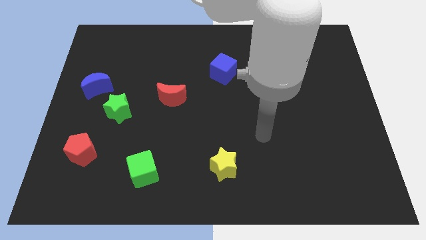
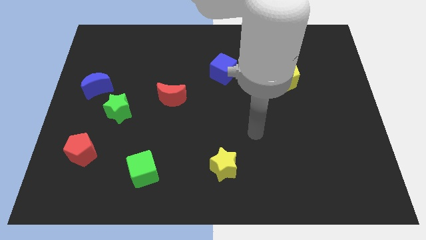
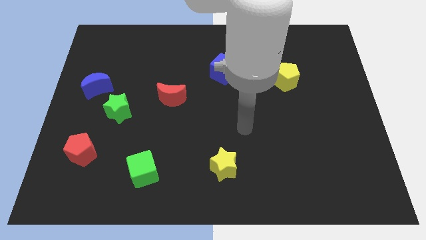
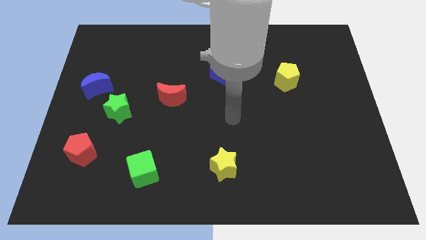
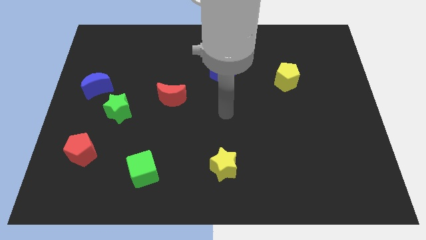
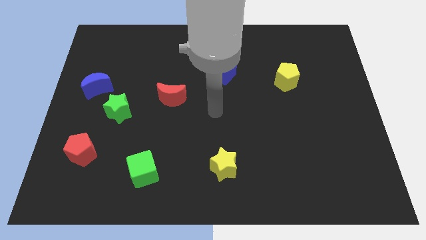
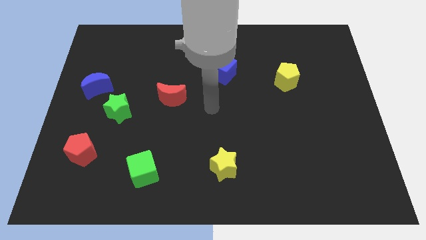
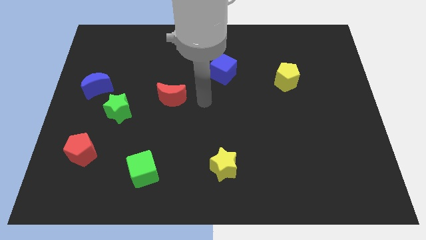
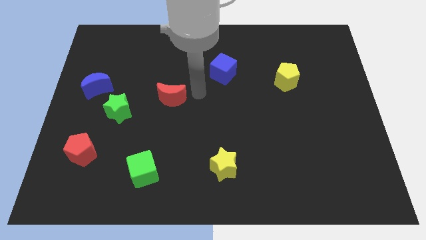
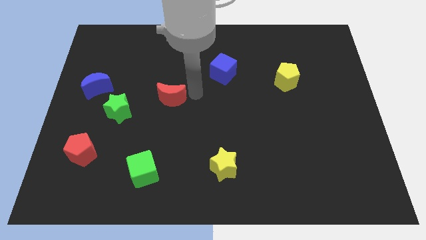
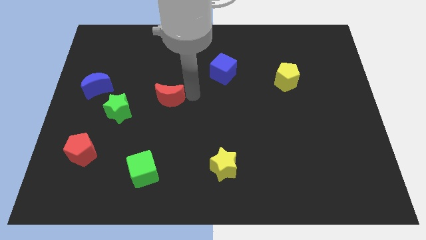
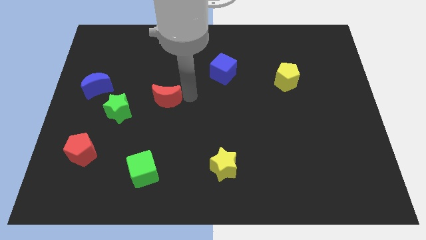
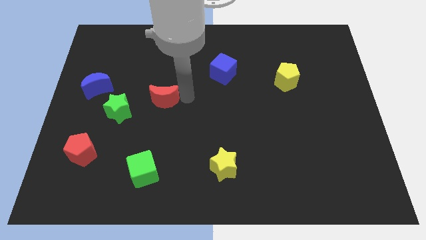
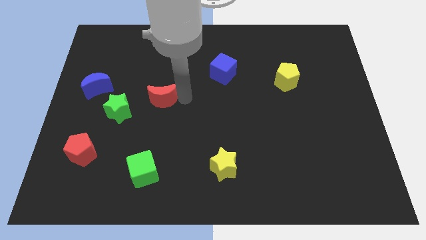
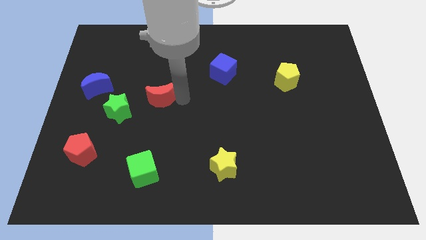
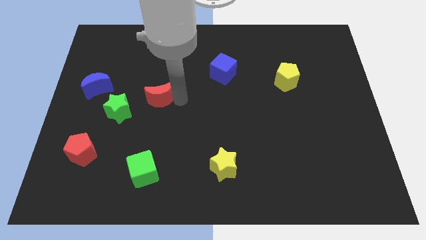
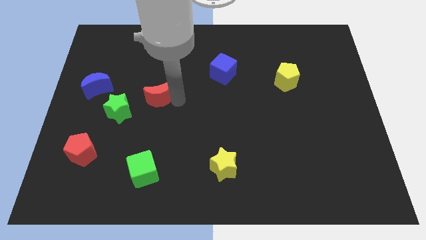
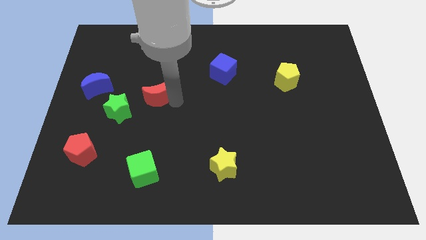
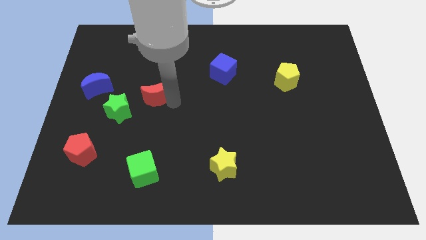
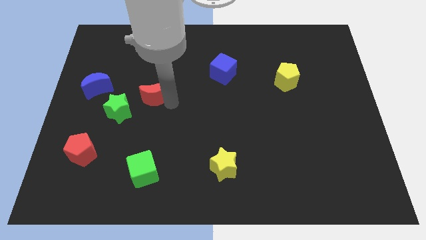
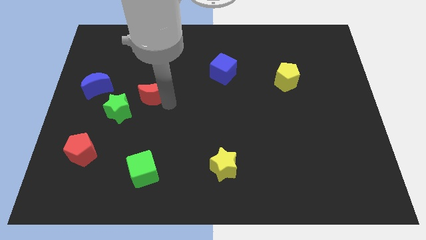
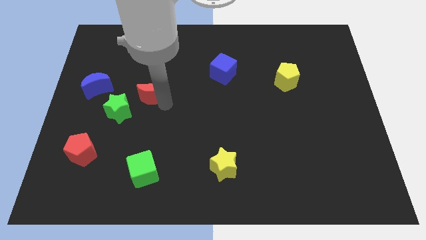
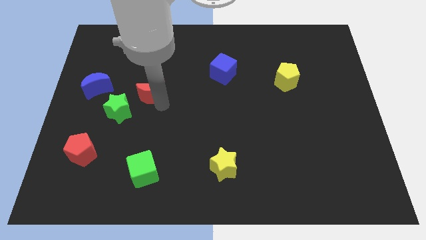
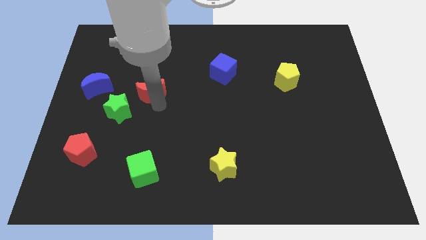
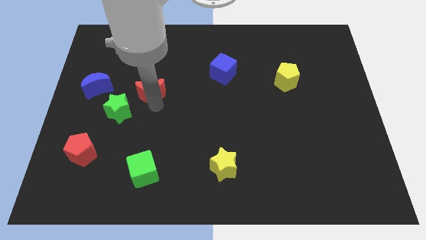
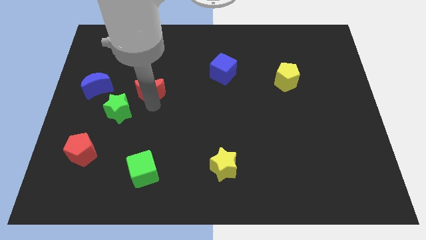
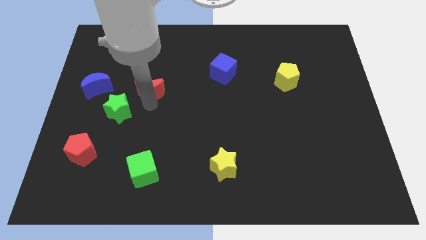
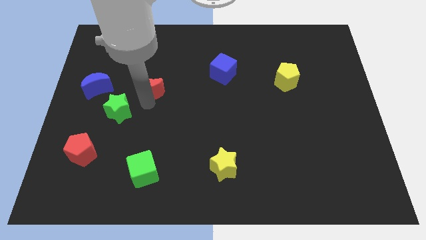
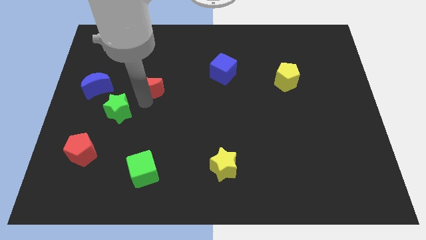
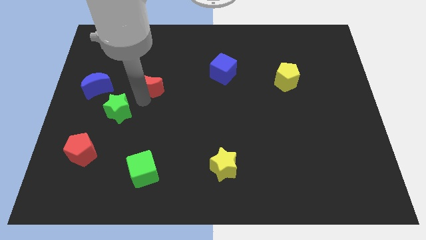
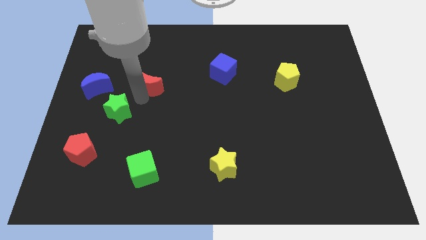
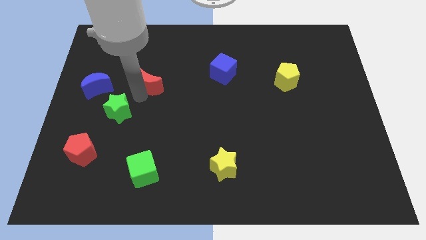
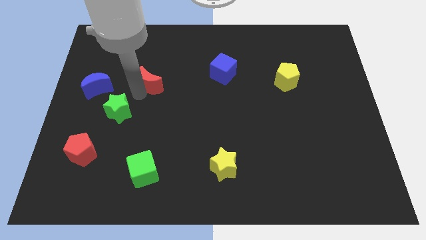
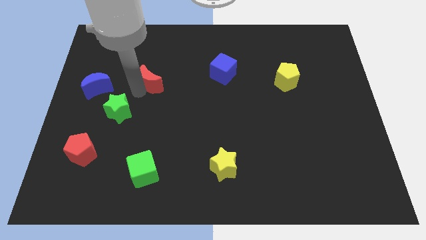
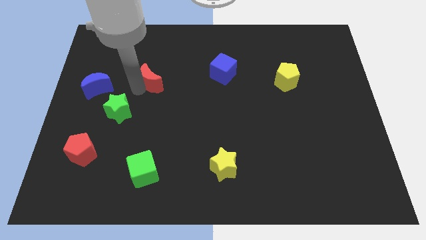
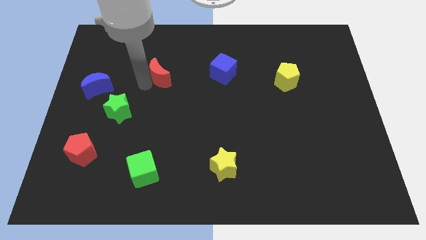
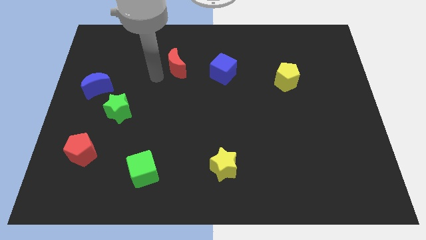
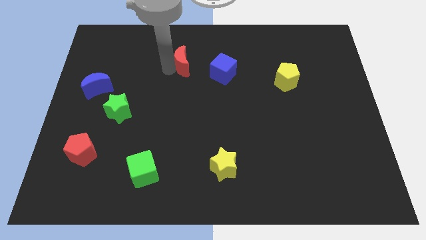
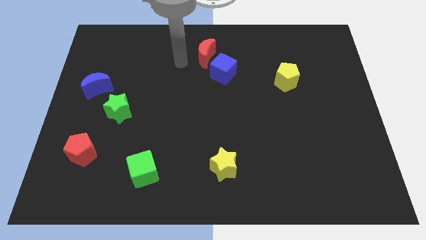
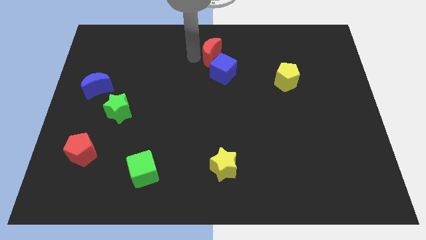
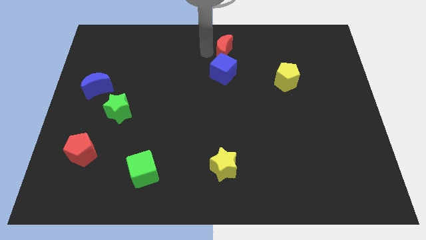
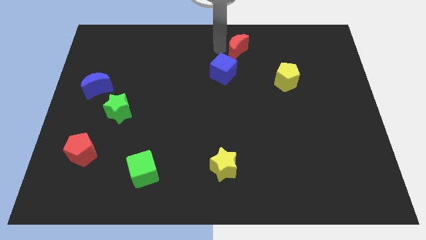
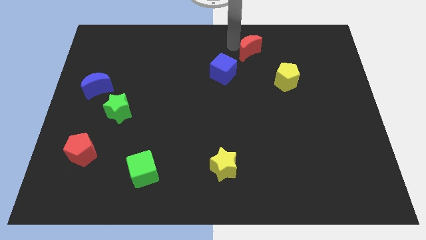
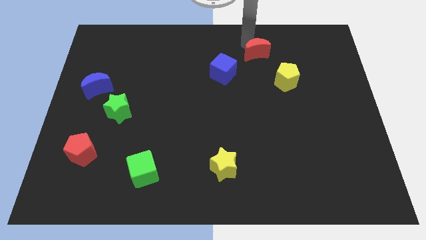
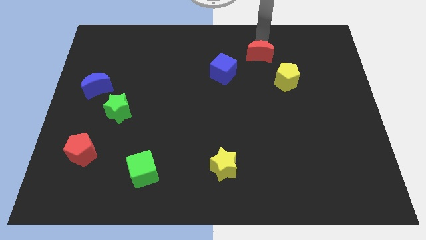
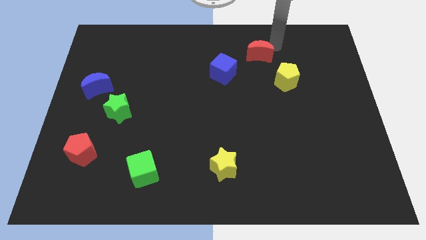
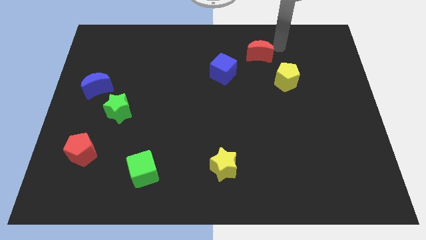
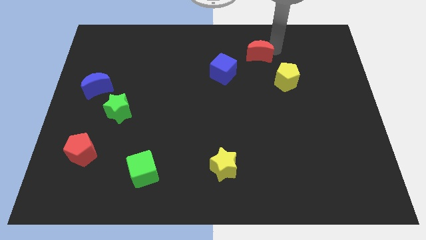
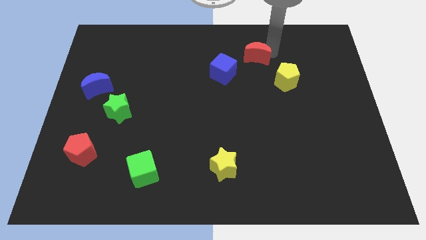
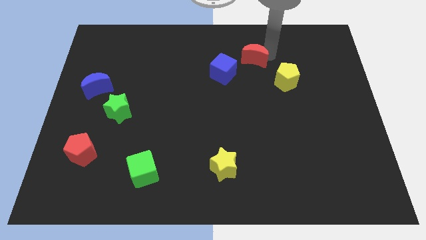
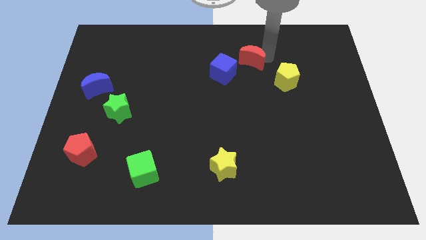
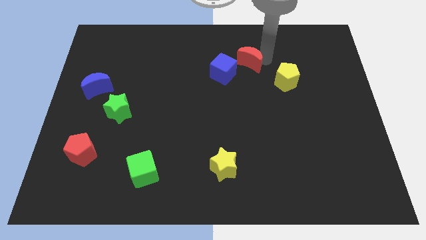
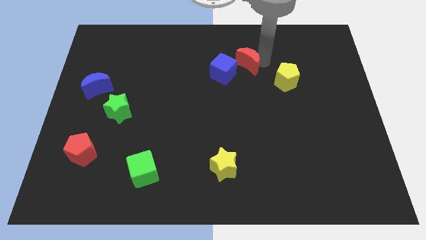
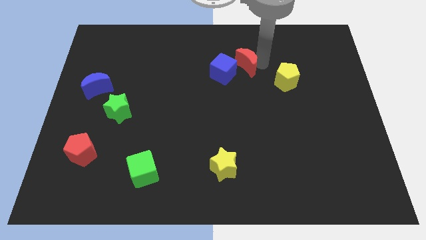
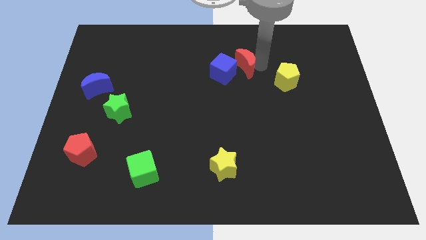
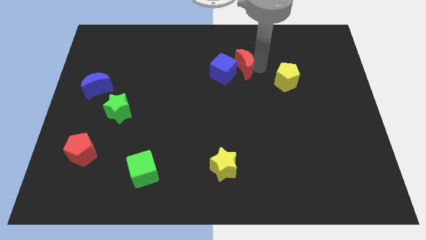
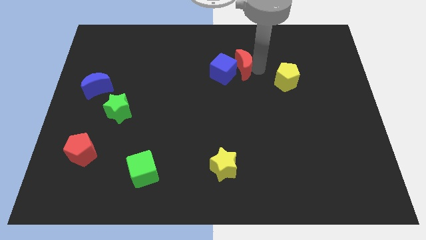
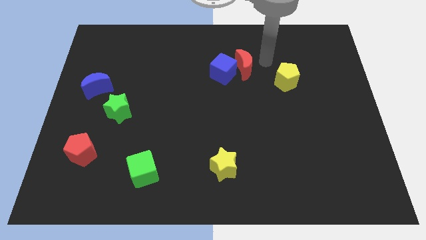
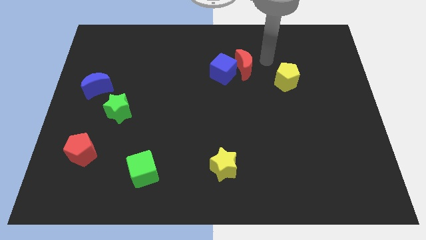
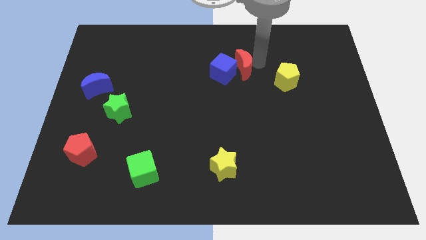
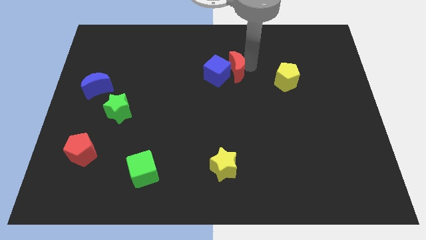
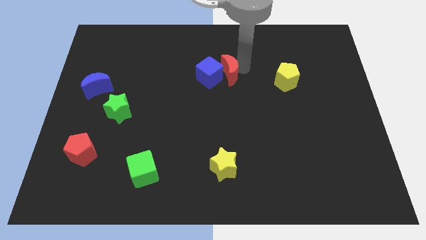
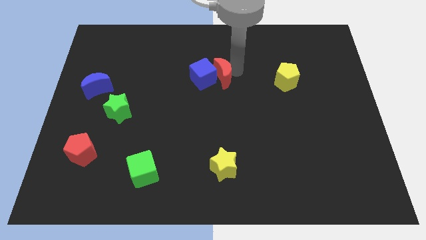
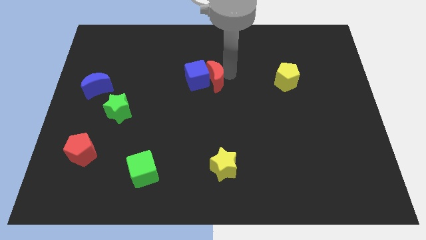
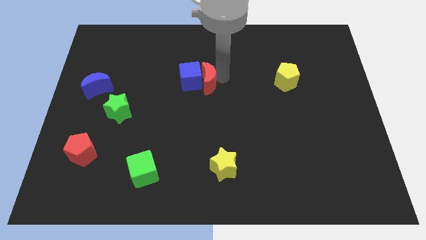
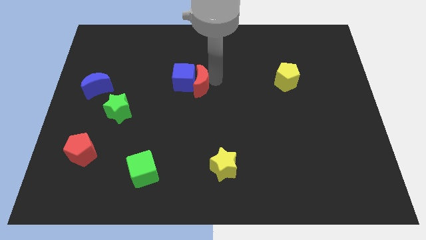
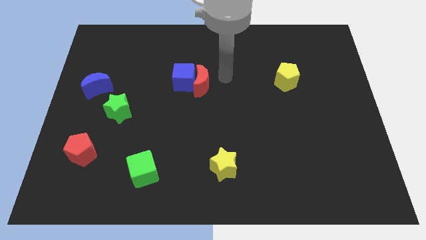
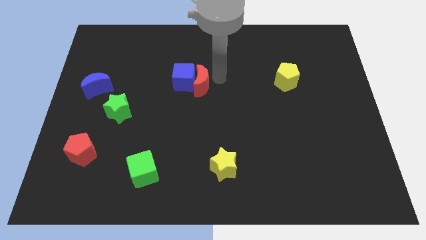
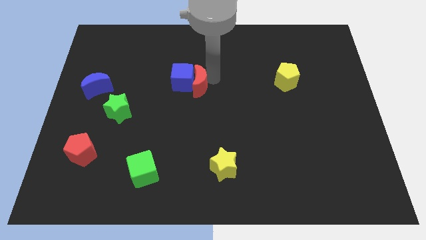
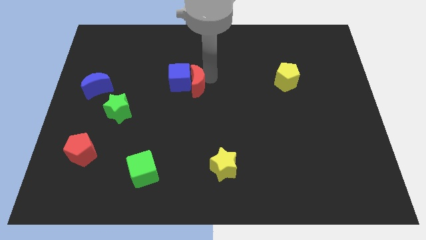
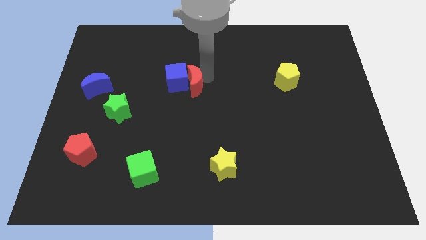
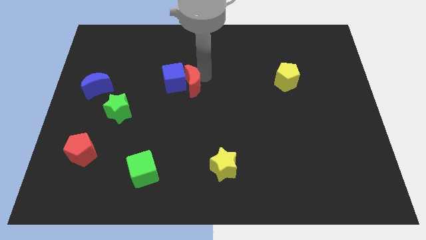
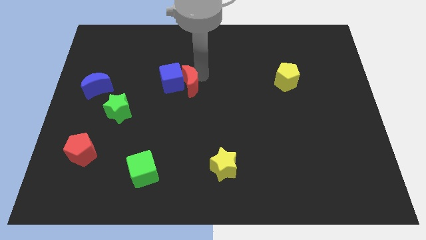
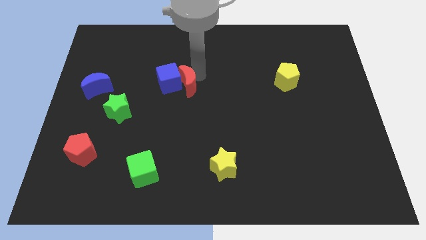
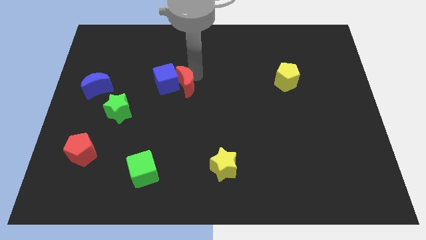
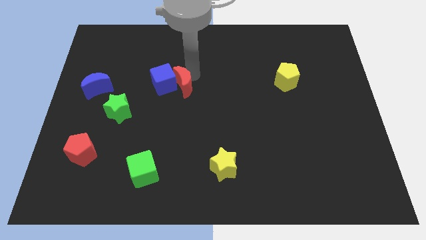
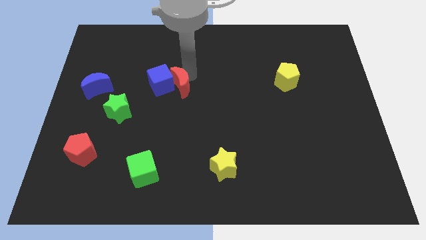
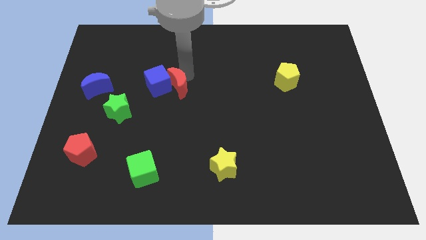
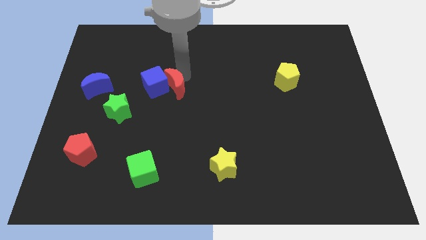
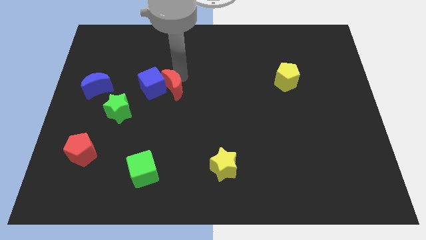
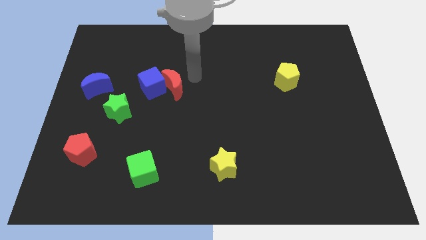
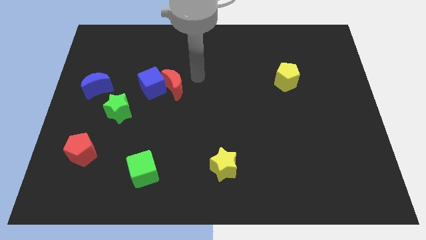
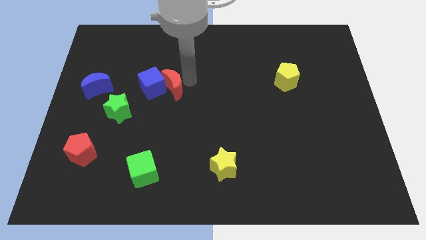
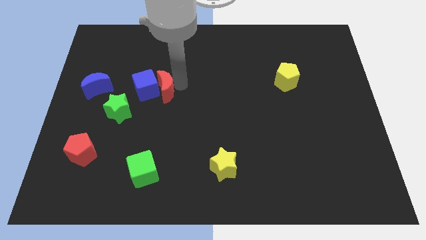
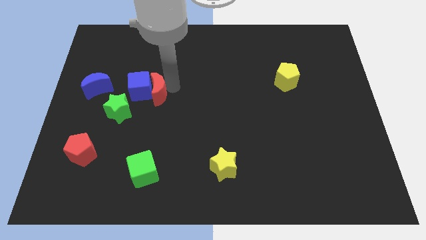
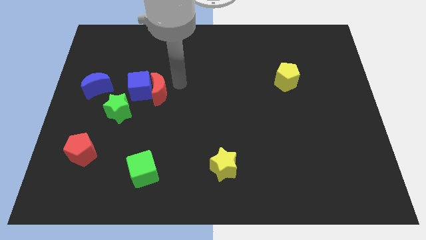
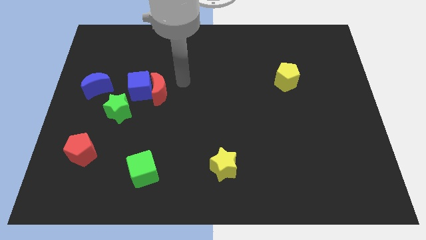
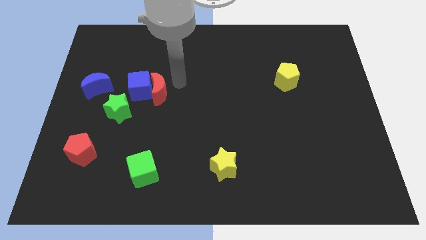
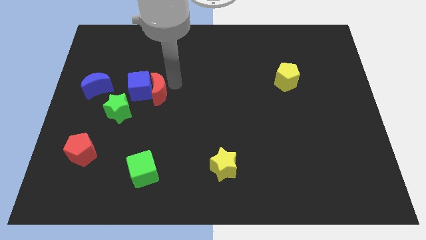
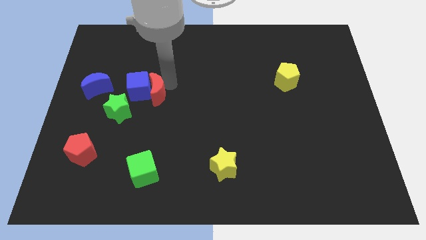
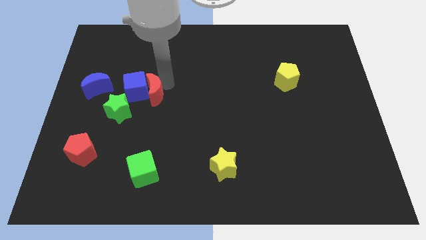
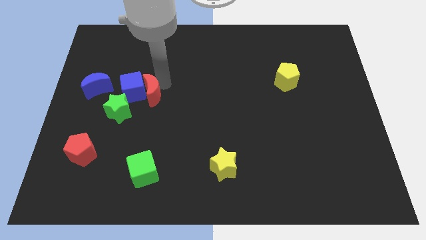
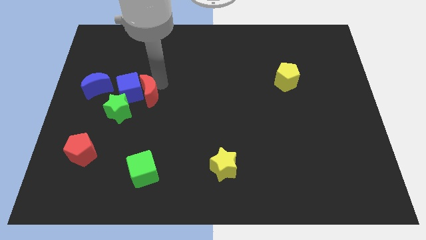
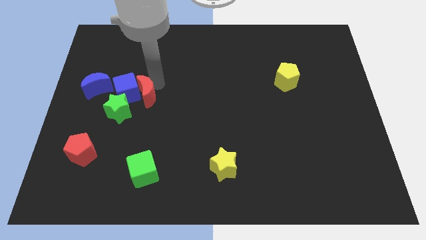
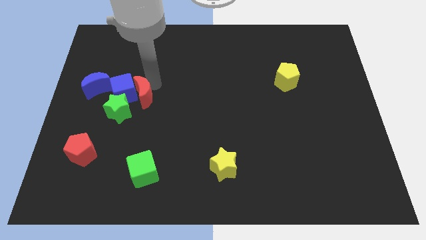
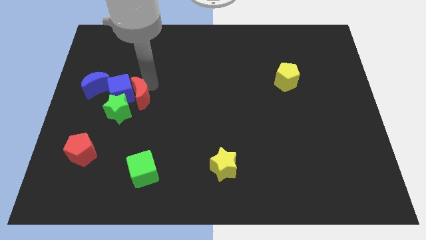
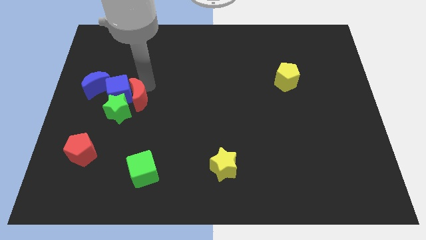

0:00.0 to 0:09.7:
slide the red moon to the green star
